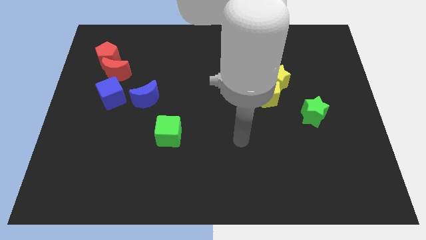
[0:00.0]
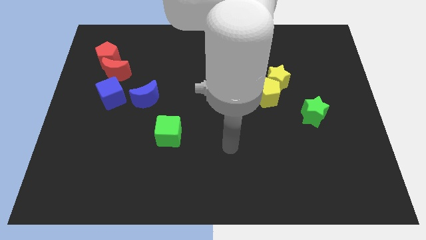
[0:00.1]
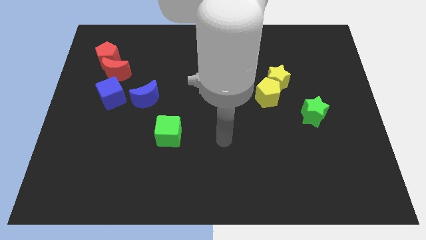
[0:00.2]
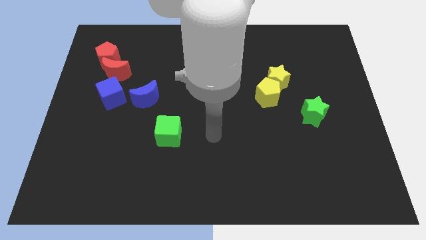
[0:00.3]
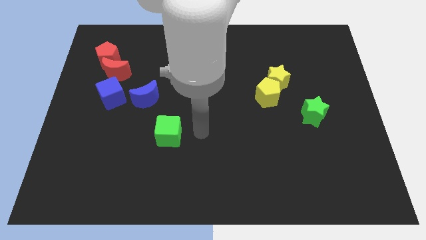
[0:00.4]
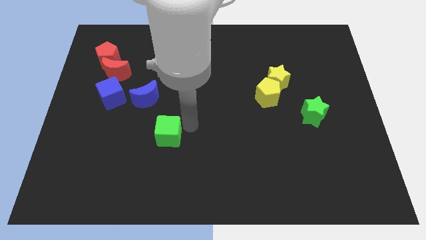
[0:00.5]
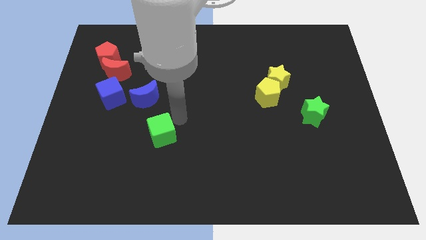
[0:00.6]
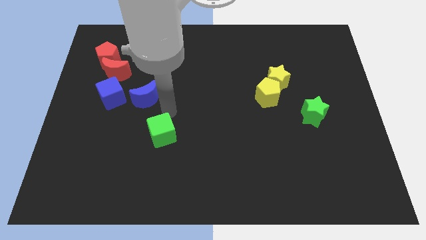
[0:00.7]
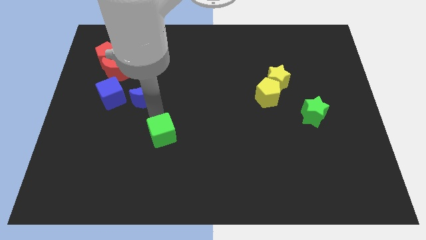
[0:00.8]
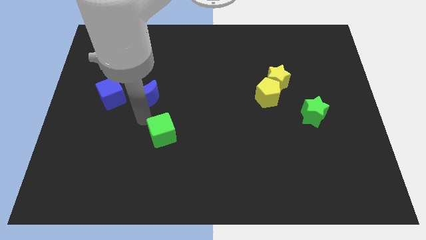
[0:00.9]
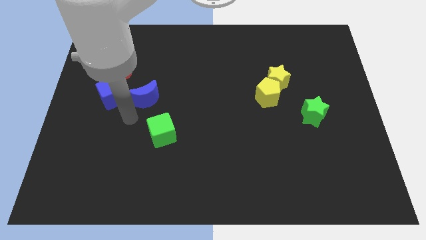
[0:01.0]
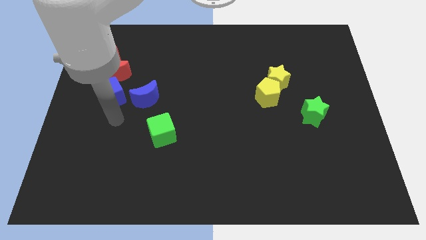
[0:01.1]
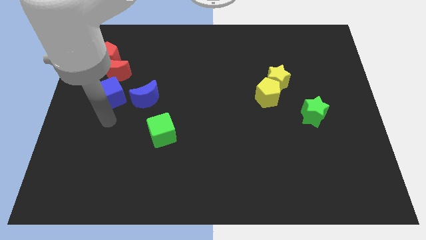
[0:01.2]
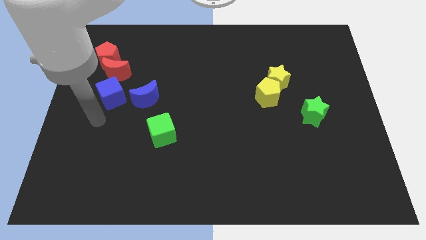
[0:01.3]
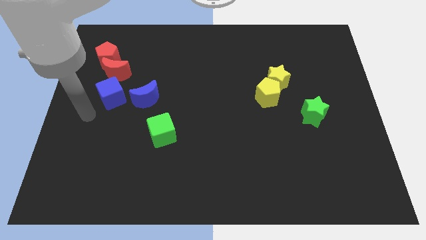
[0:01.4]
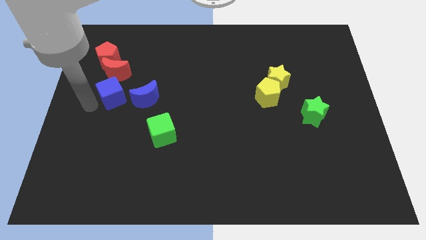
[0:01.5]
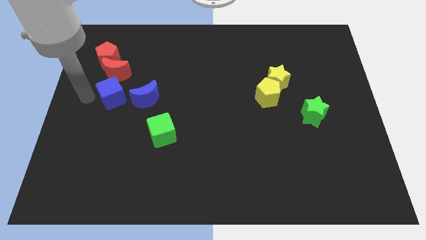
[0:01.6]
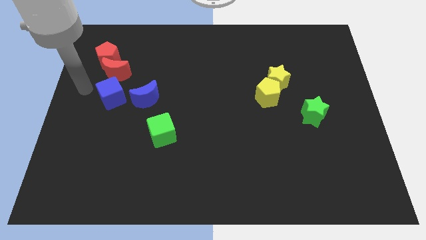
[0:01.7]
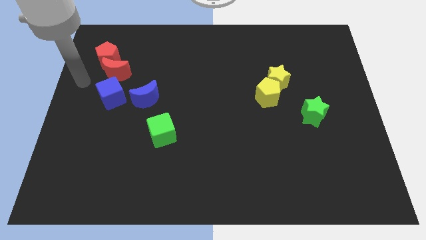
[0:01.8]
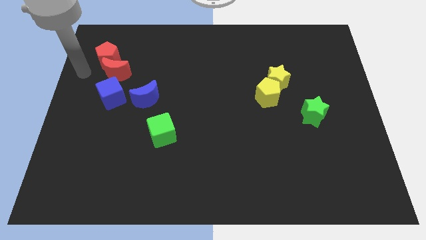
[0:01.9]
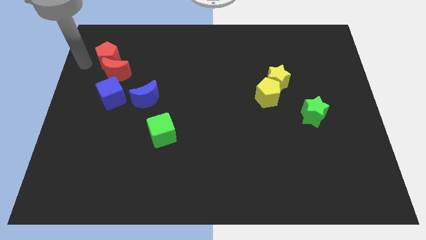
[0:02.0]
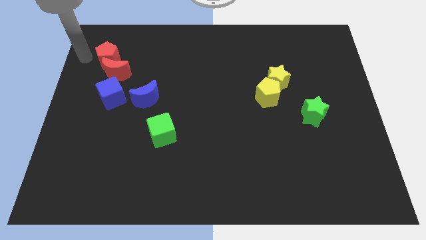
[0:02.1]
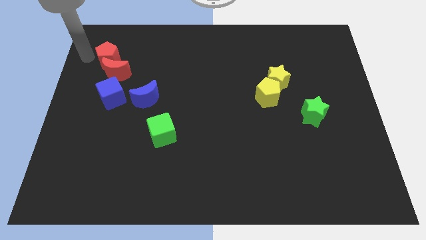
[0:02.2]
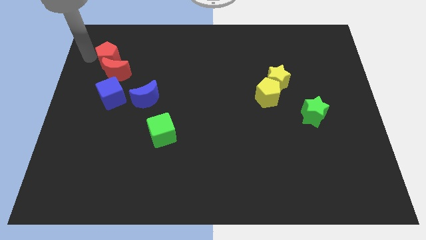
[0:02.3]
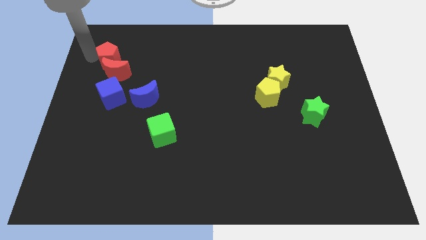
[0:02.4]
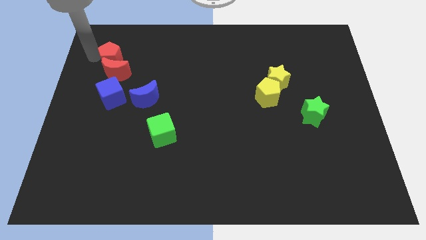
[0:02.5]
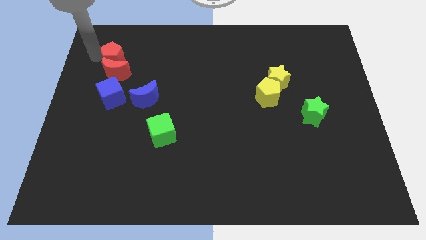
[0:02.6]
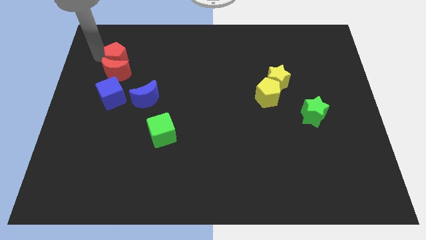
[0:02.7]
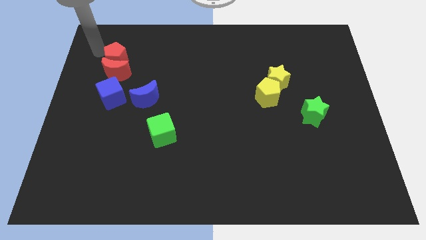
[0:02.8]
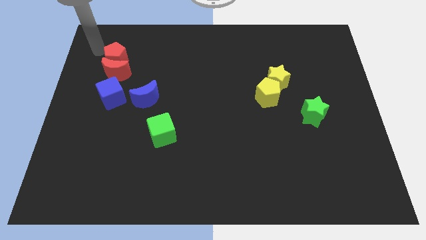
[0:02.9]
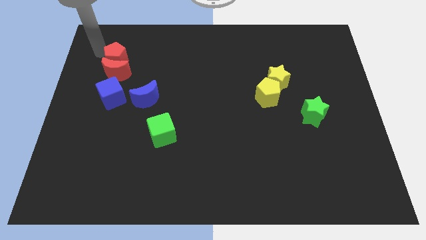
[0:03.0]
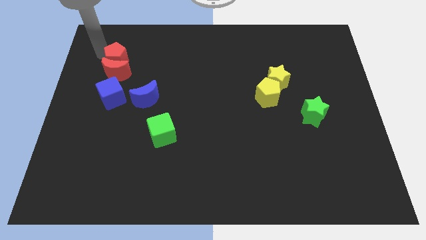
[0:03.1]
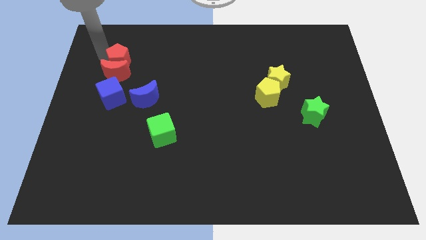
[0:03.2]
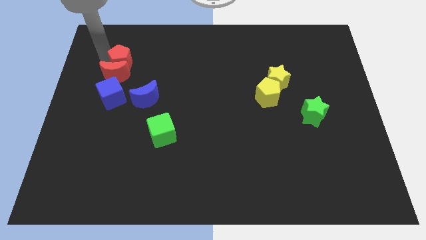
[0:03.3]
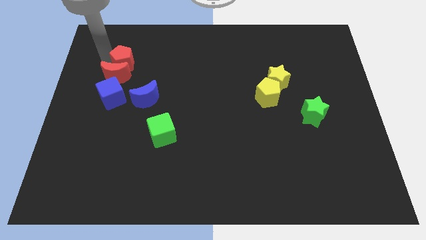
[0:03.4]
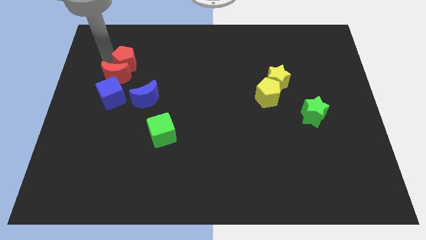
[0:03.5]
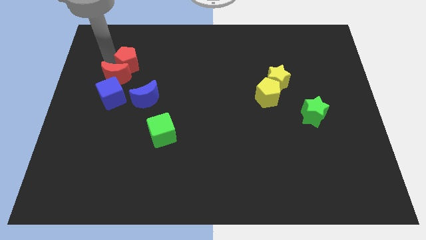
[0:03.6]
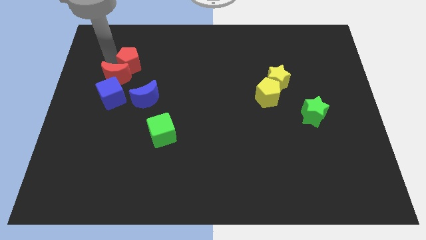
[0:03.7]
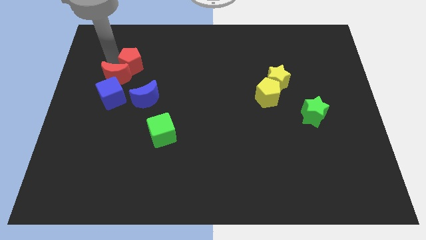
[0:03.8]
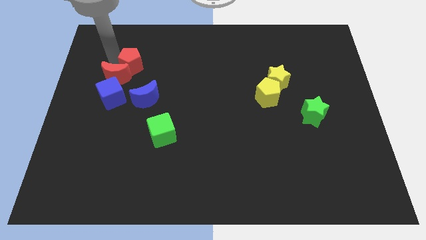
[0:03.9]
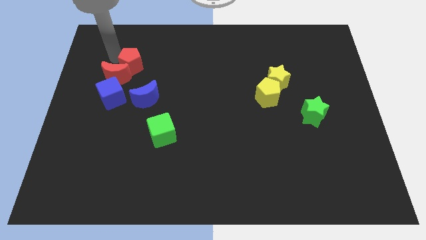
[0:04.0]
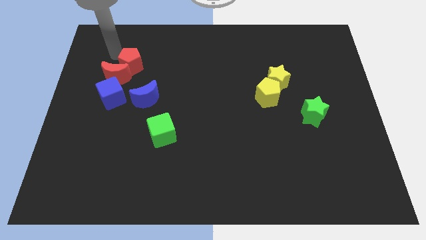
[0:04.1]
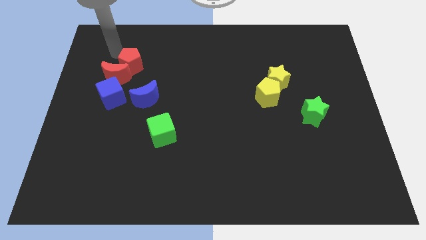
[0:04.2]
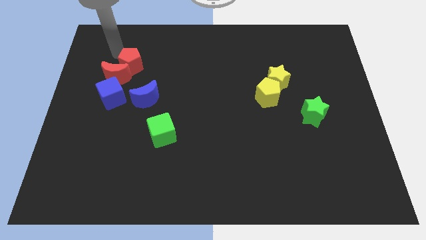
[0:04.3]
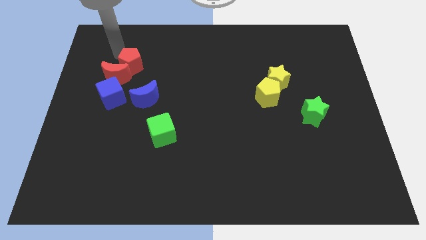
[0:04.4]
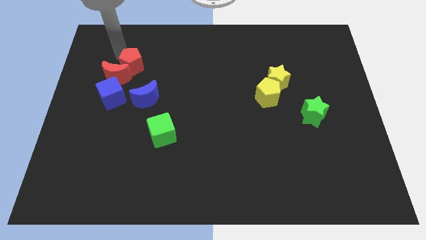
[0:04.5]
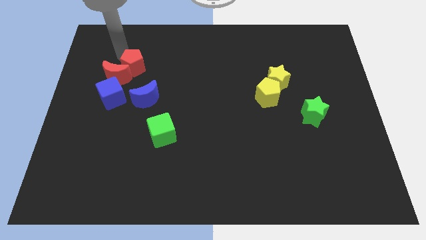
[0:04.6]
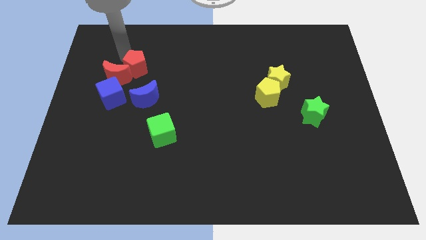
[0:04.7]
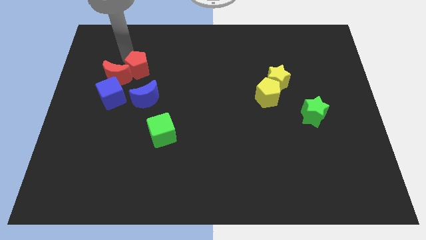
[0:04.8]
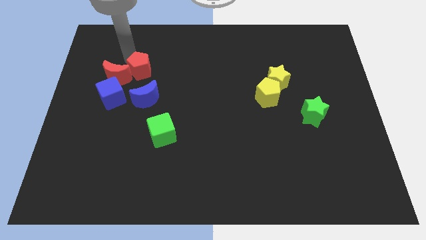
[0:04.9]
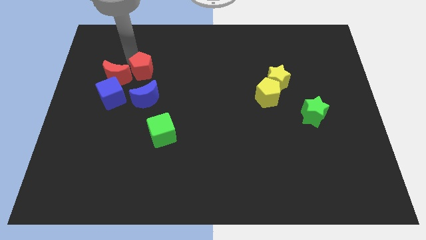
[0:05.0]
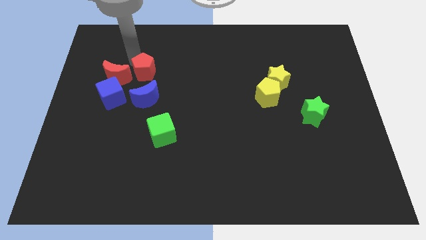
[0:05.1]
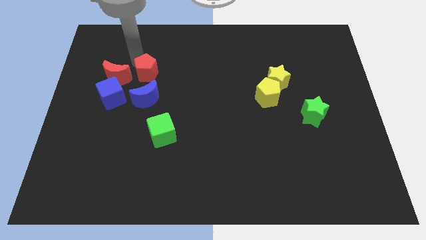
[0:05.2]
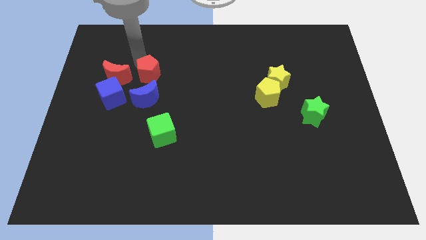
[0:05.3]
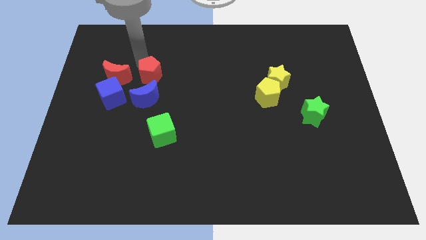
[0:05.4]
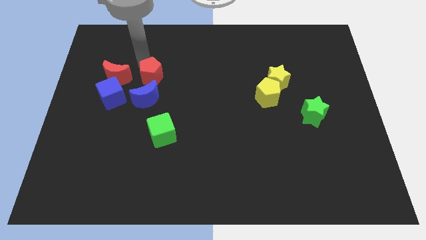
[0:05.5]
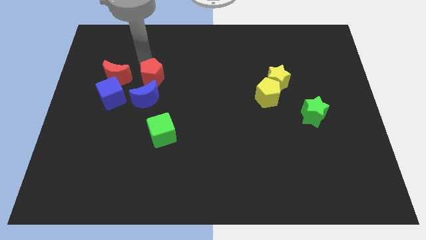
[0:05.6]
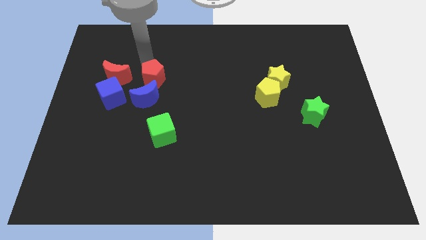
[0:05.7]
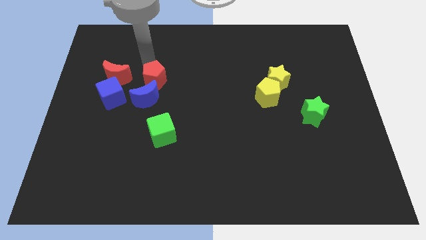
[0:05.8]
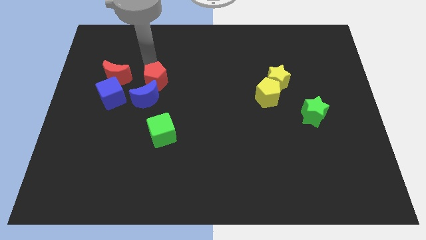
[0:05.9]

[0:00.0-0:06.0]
slide the red pentagon towards the blue moon

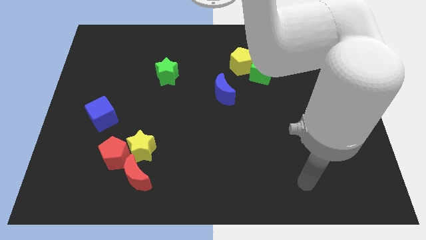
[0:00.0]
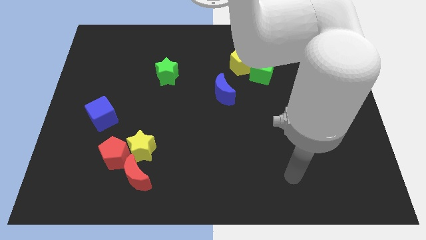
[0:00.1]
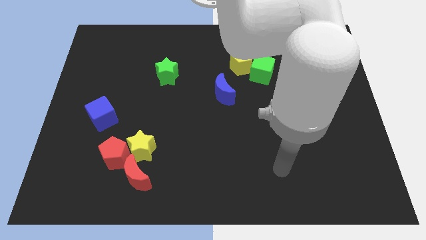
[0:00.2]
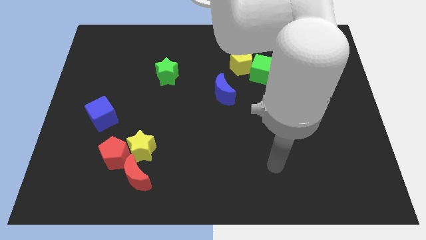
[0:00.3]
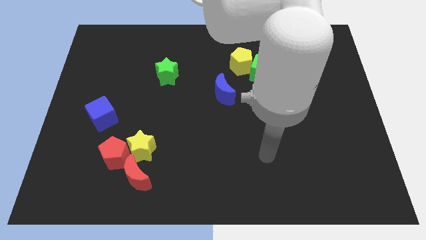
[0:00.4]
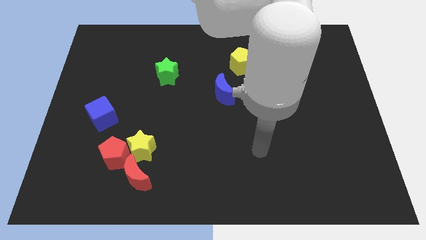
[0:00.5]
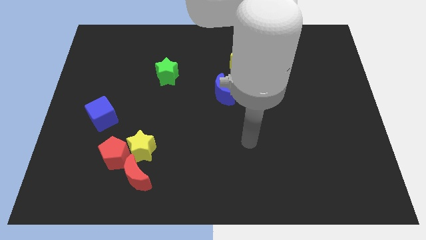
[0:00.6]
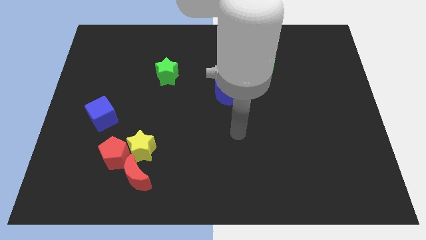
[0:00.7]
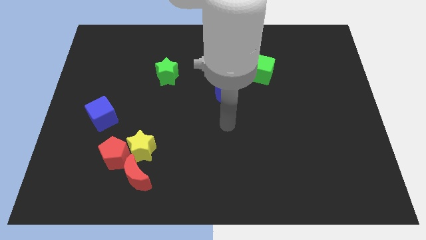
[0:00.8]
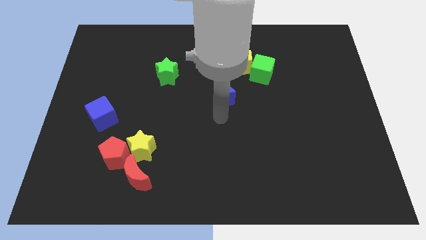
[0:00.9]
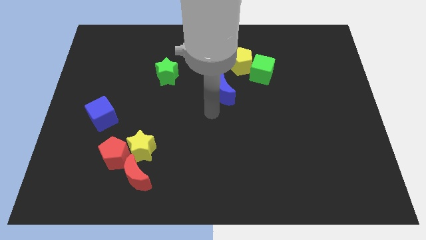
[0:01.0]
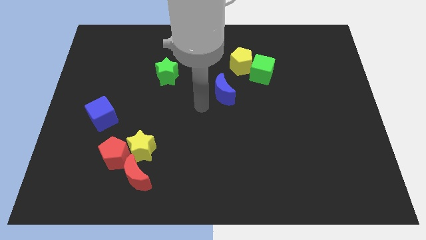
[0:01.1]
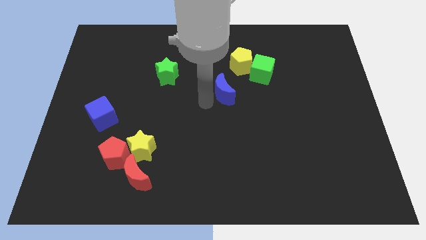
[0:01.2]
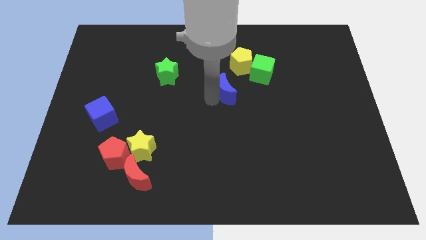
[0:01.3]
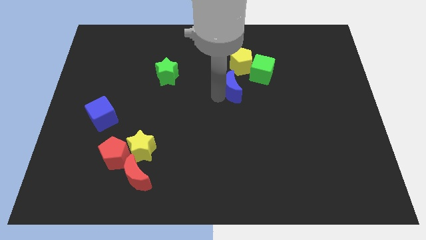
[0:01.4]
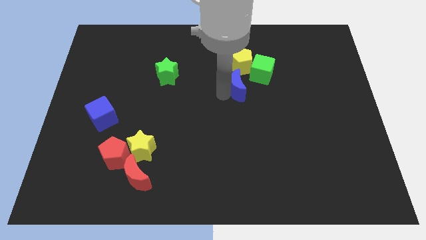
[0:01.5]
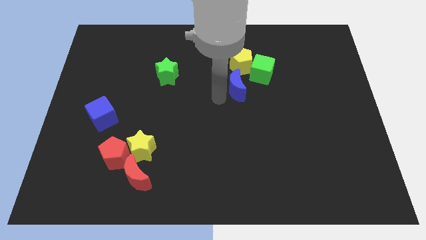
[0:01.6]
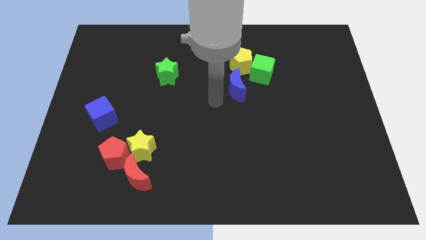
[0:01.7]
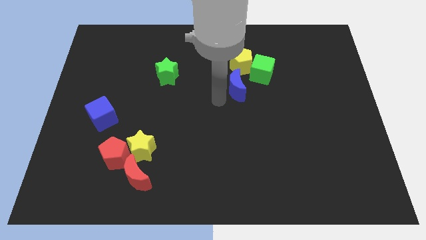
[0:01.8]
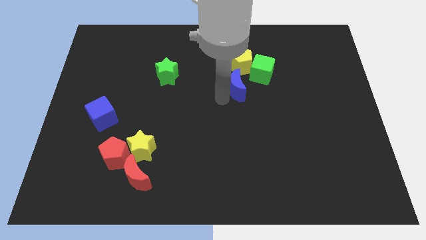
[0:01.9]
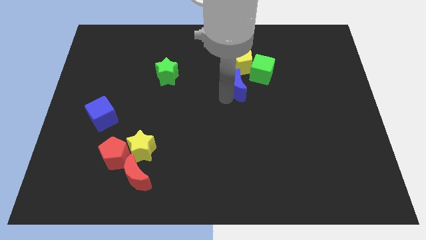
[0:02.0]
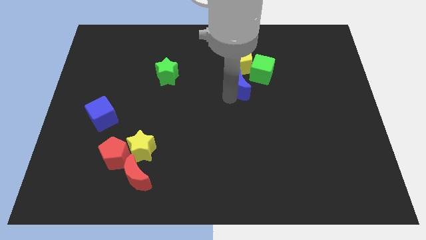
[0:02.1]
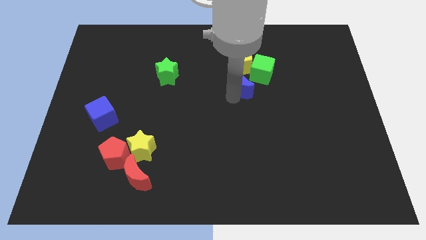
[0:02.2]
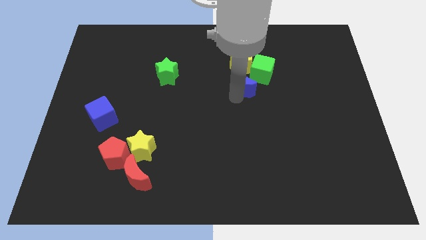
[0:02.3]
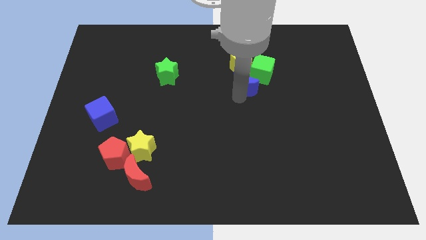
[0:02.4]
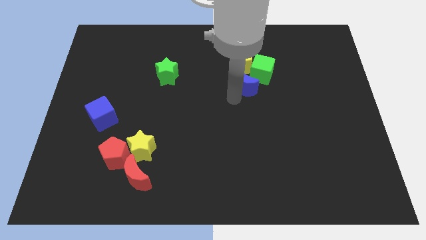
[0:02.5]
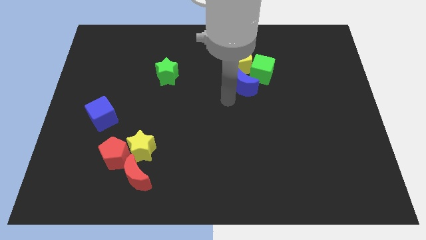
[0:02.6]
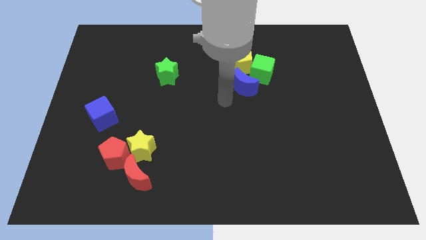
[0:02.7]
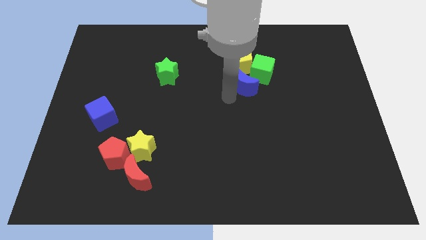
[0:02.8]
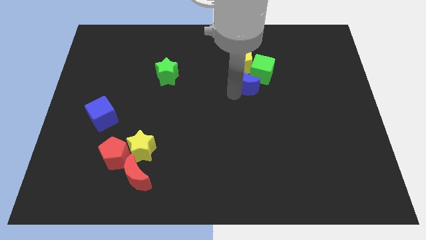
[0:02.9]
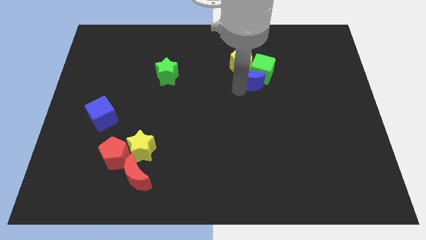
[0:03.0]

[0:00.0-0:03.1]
slide the blue moon towards the green cube
